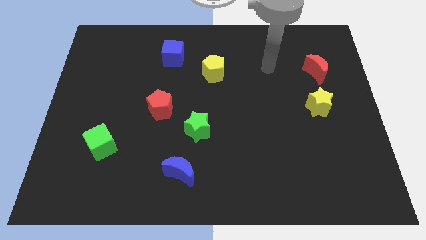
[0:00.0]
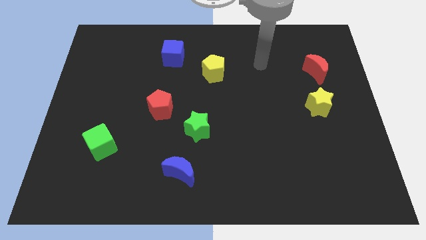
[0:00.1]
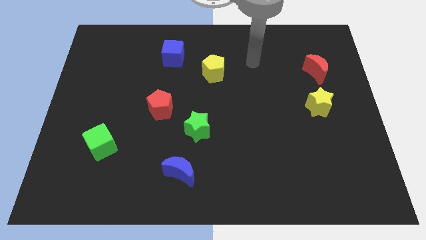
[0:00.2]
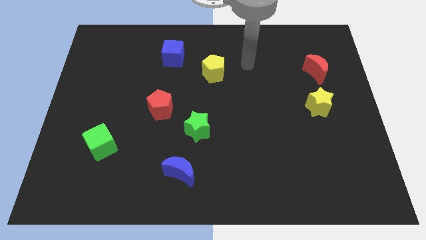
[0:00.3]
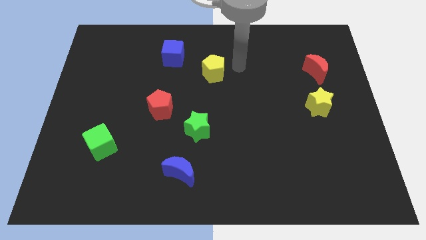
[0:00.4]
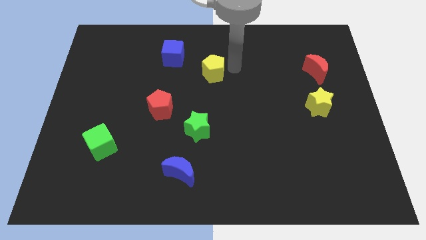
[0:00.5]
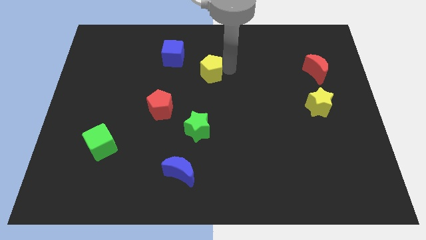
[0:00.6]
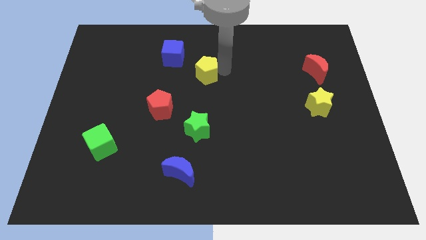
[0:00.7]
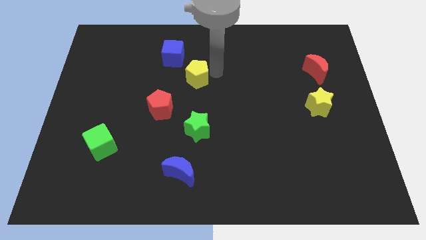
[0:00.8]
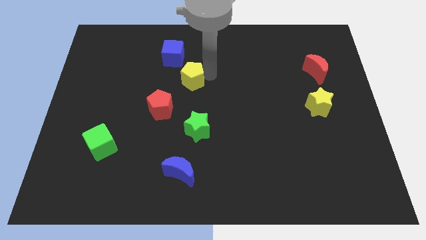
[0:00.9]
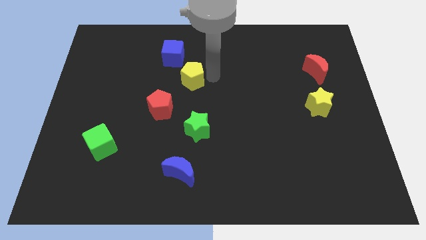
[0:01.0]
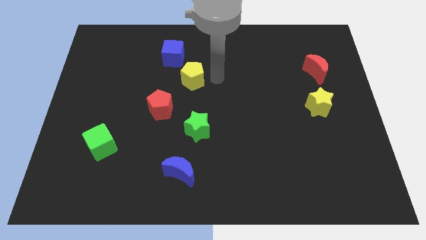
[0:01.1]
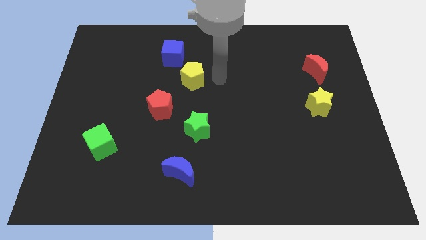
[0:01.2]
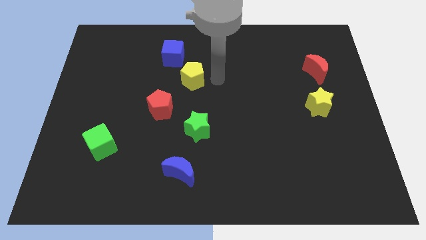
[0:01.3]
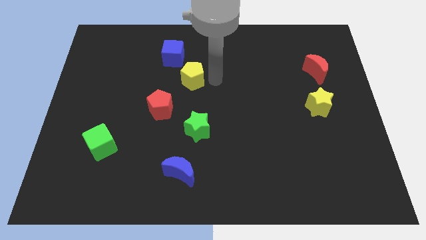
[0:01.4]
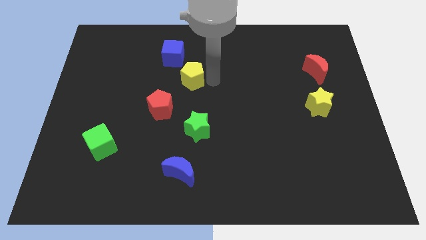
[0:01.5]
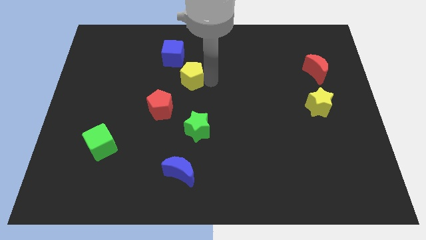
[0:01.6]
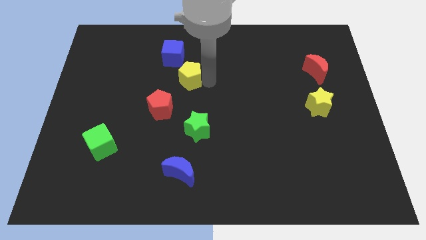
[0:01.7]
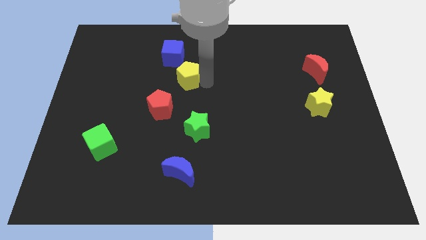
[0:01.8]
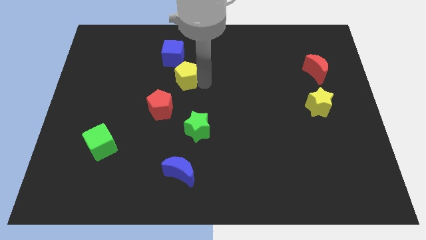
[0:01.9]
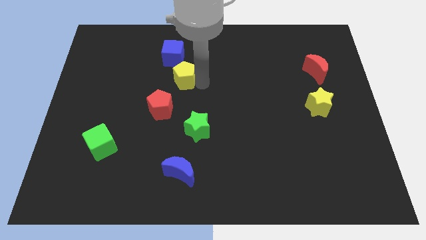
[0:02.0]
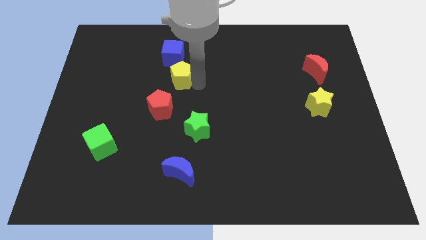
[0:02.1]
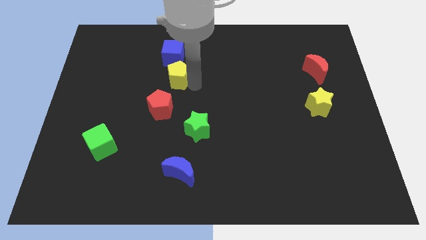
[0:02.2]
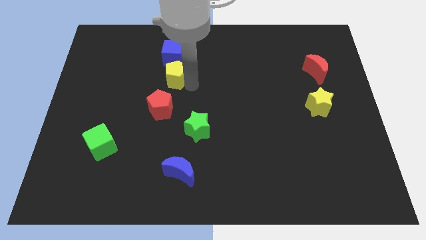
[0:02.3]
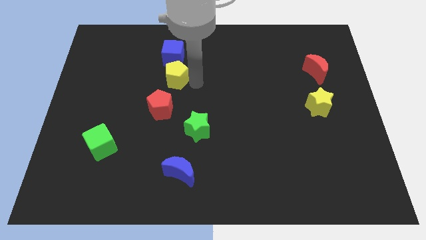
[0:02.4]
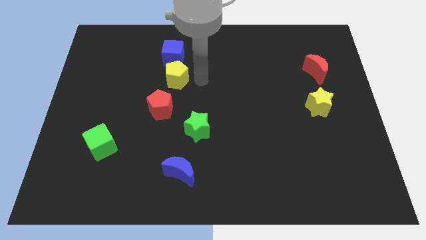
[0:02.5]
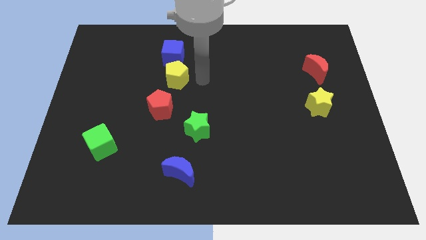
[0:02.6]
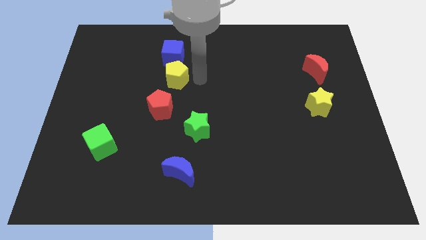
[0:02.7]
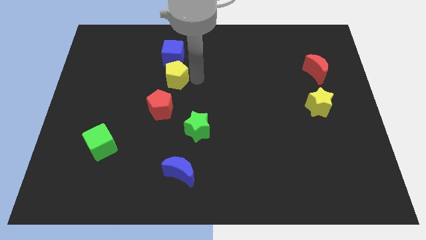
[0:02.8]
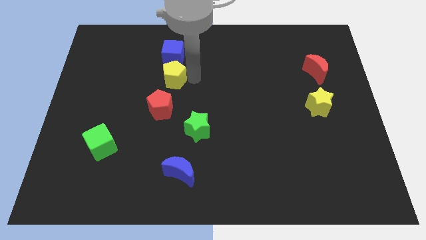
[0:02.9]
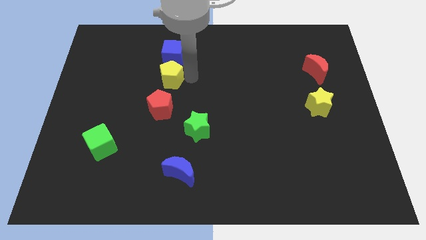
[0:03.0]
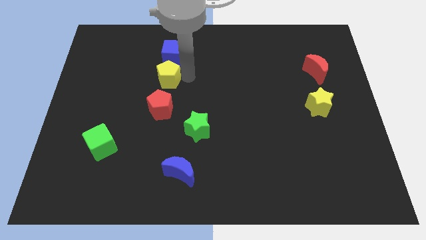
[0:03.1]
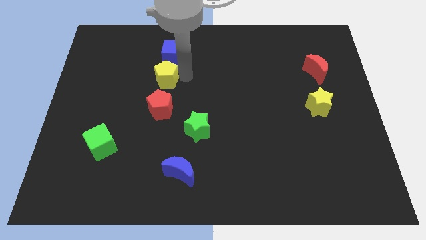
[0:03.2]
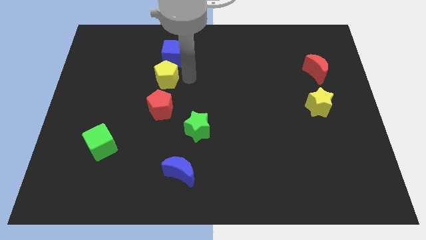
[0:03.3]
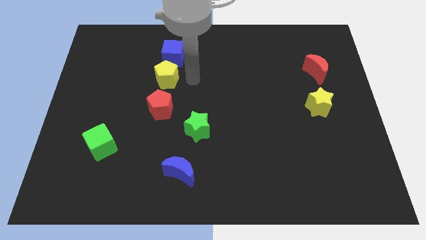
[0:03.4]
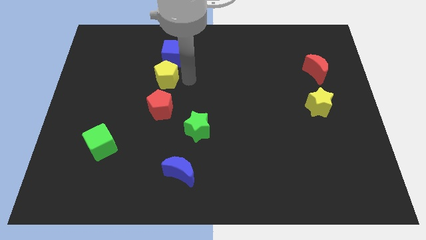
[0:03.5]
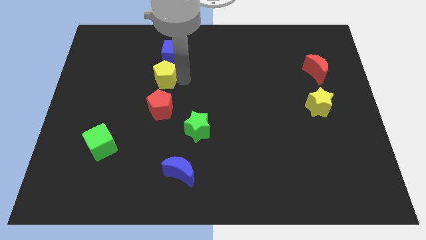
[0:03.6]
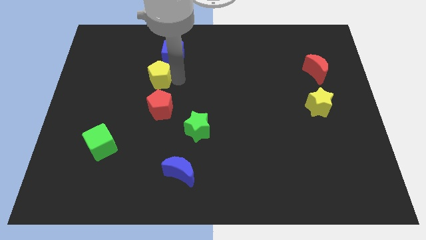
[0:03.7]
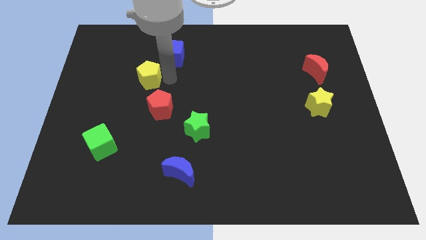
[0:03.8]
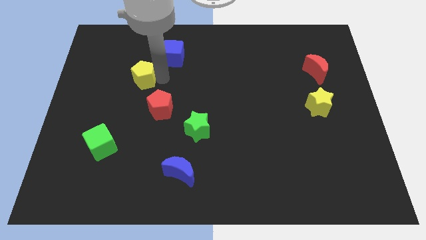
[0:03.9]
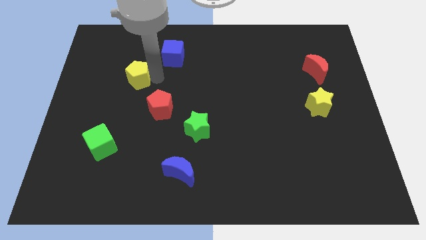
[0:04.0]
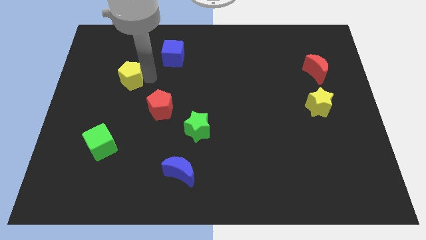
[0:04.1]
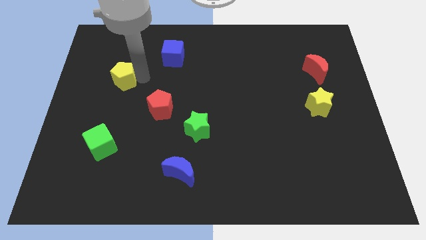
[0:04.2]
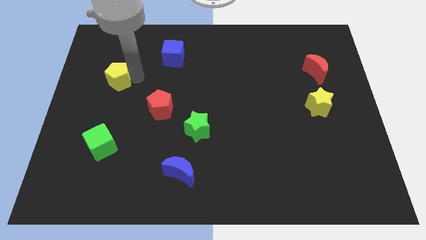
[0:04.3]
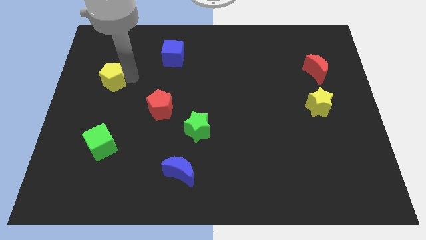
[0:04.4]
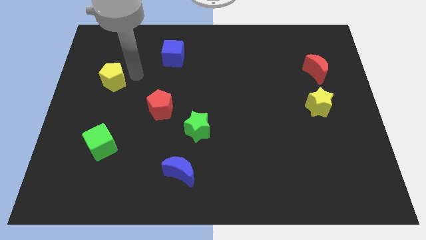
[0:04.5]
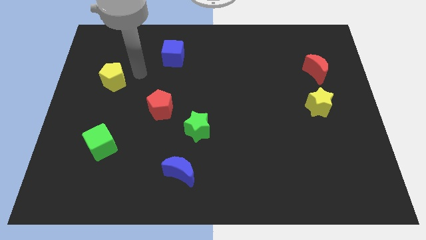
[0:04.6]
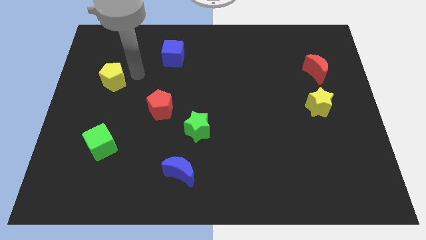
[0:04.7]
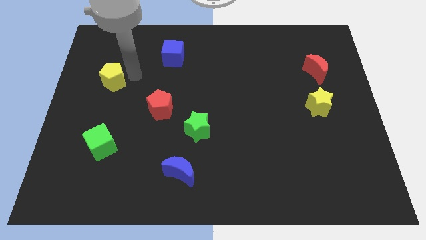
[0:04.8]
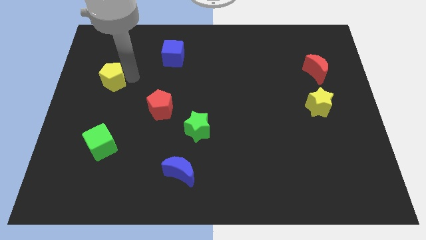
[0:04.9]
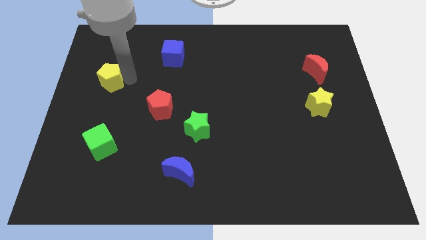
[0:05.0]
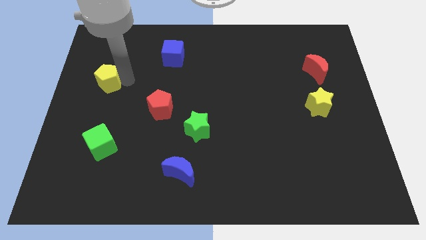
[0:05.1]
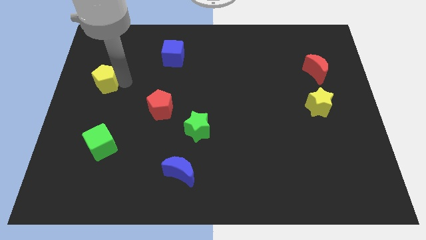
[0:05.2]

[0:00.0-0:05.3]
put the yellow pentagon to the left side of the board
